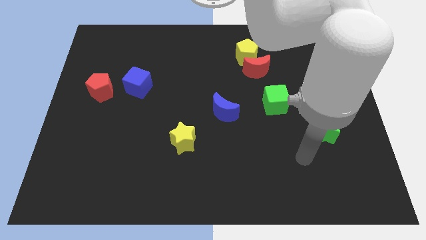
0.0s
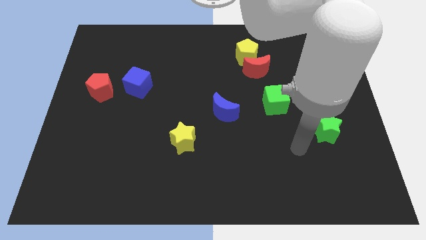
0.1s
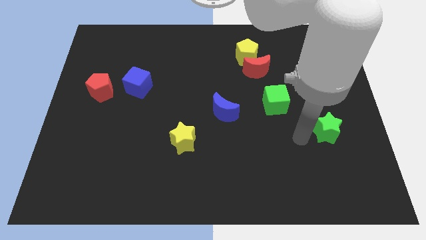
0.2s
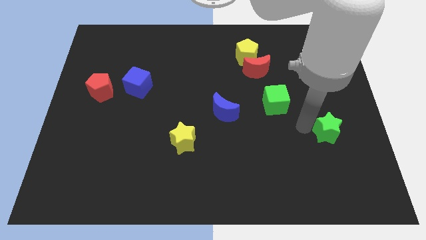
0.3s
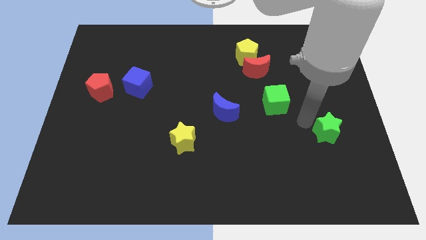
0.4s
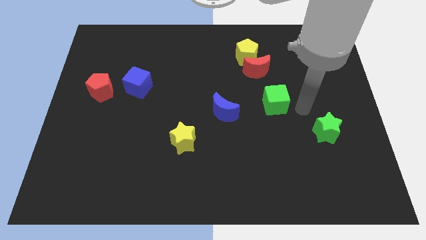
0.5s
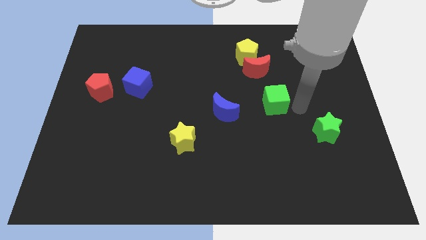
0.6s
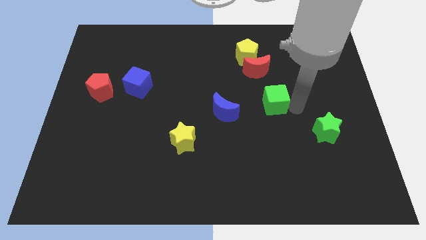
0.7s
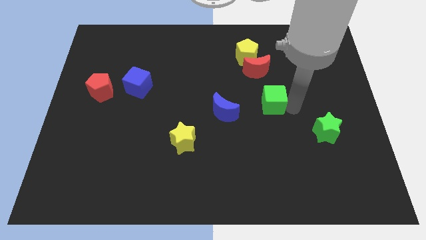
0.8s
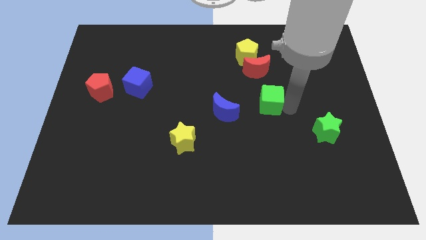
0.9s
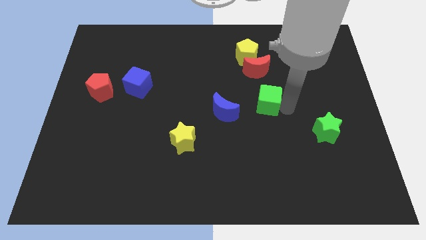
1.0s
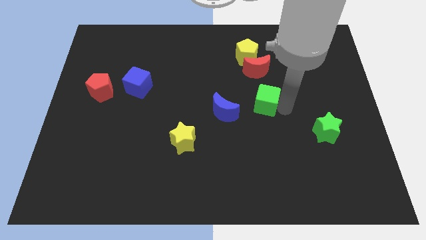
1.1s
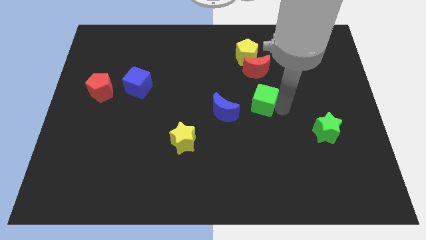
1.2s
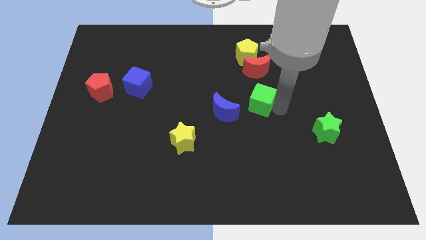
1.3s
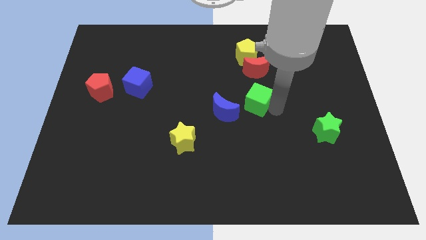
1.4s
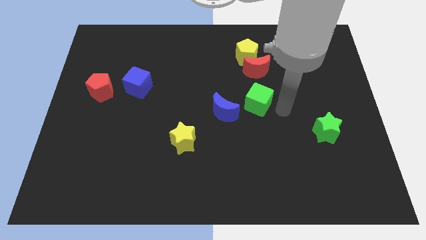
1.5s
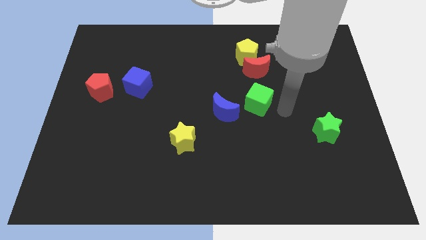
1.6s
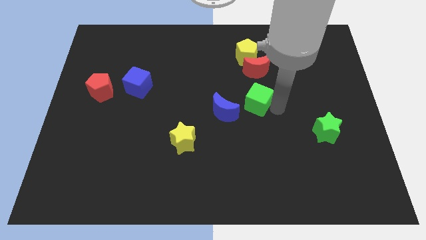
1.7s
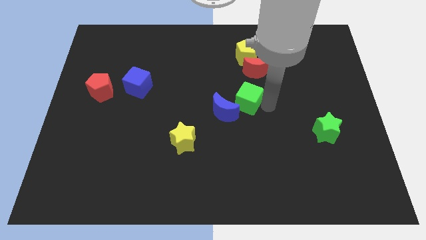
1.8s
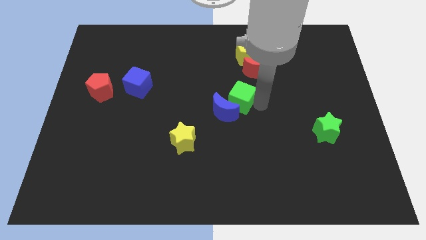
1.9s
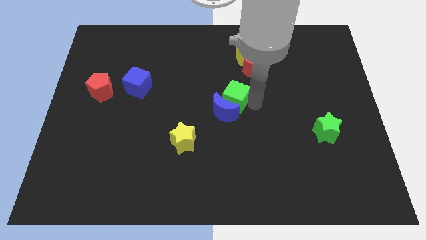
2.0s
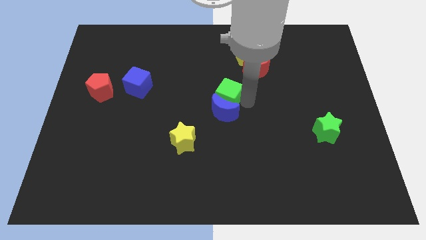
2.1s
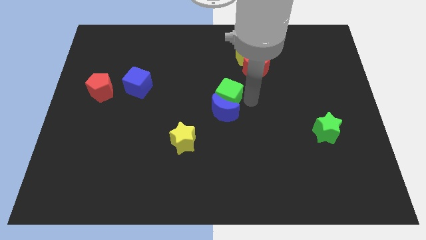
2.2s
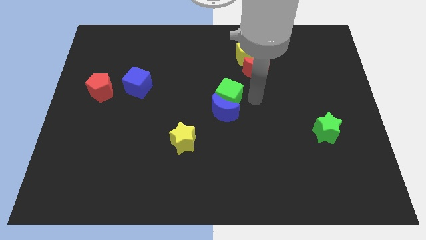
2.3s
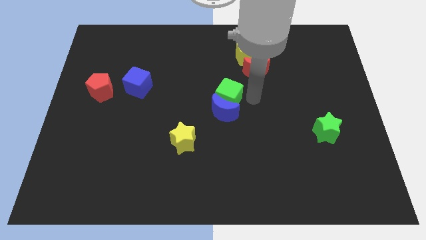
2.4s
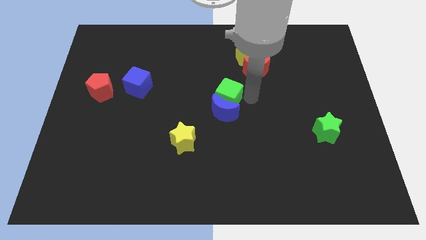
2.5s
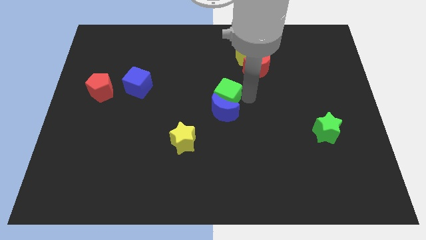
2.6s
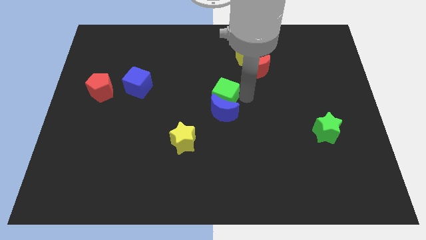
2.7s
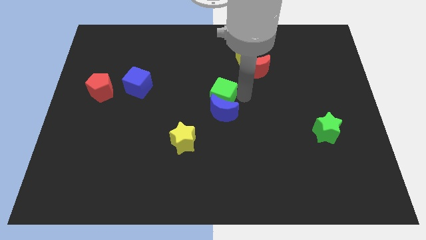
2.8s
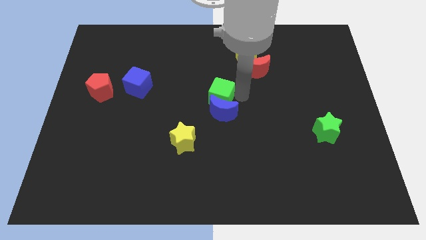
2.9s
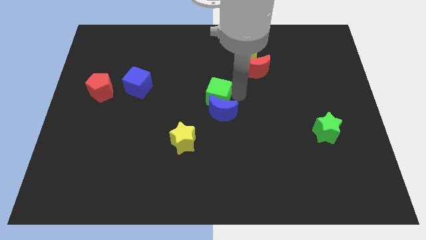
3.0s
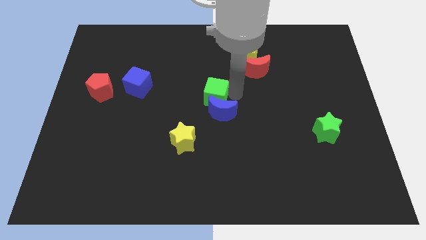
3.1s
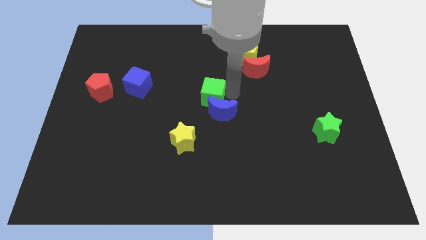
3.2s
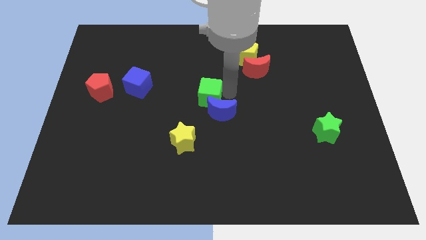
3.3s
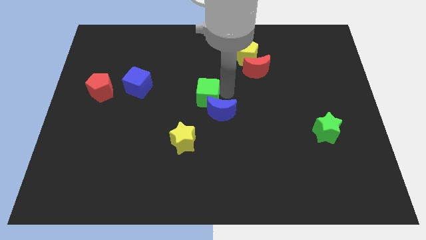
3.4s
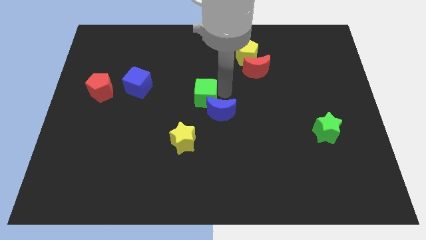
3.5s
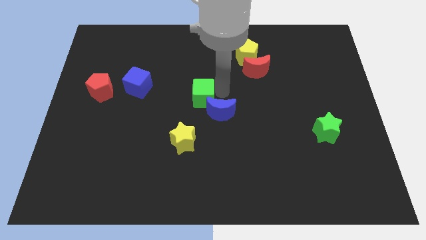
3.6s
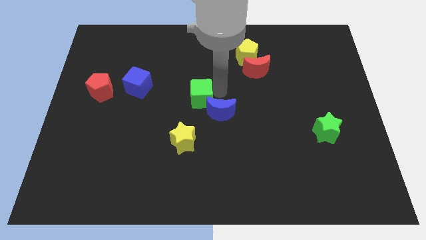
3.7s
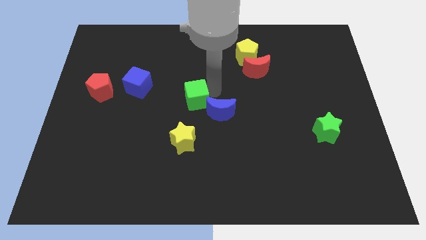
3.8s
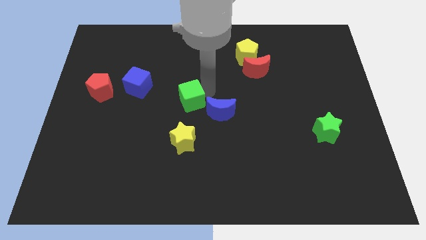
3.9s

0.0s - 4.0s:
push the green cube left

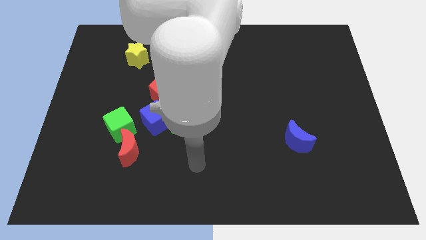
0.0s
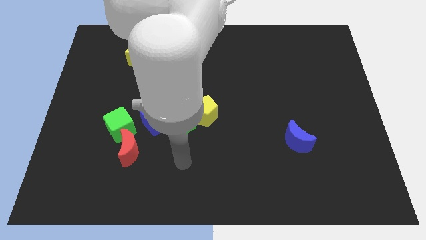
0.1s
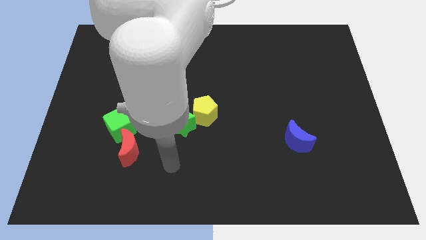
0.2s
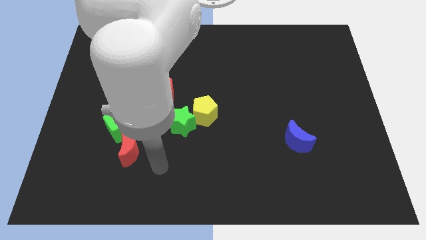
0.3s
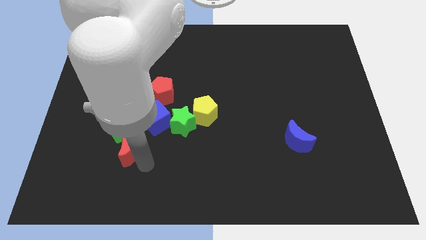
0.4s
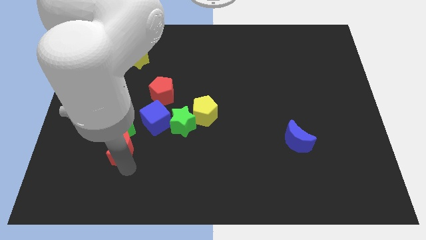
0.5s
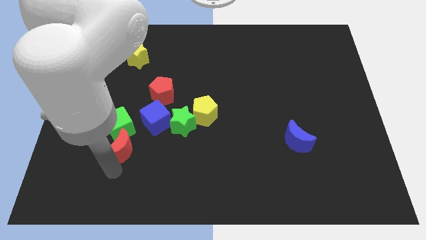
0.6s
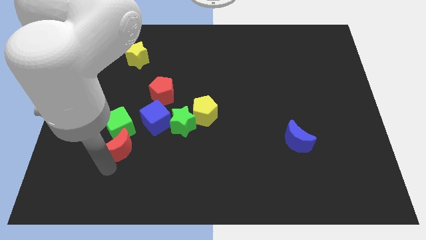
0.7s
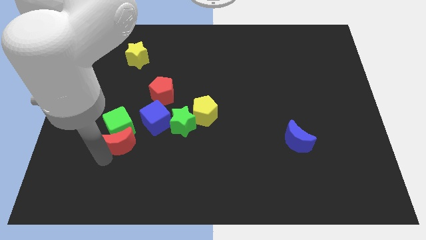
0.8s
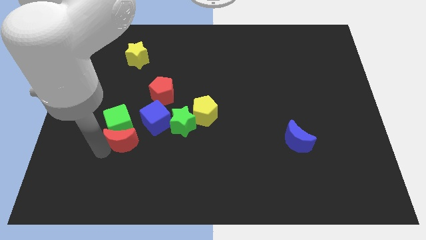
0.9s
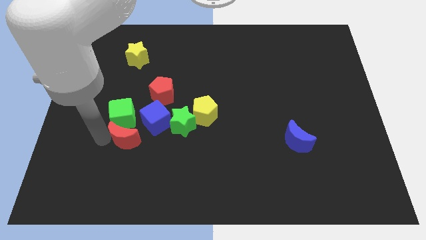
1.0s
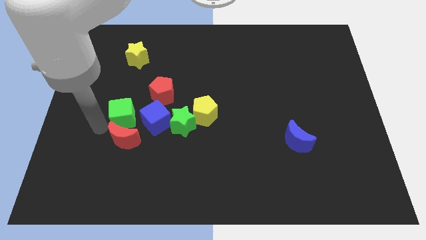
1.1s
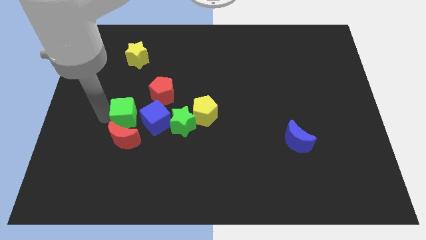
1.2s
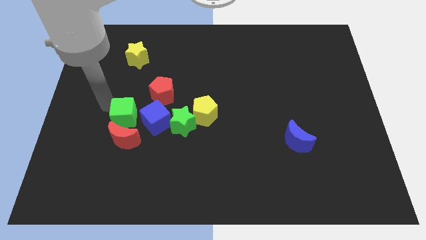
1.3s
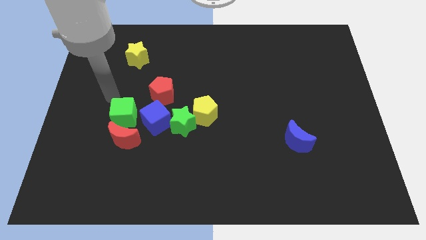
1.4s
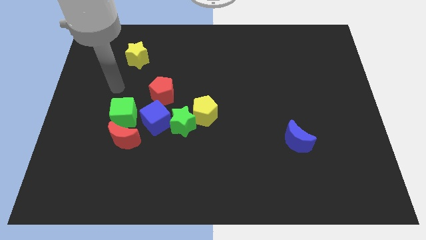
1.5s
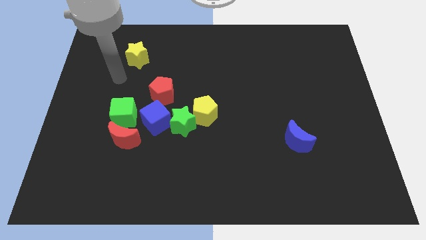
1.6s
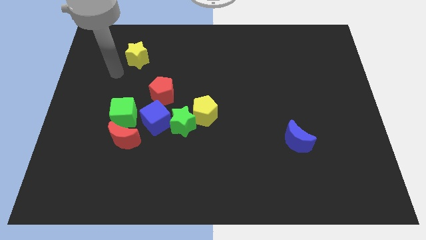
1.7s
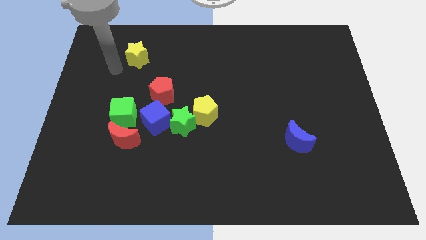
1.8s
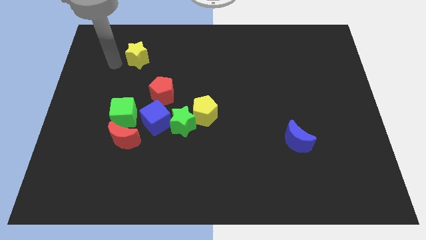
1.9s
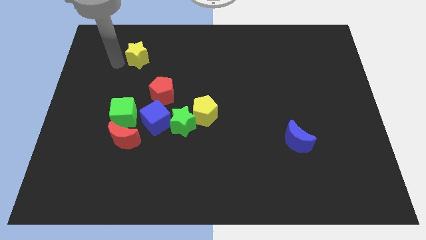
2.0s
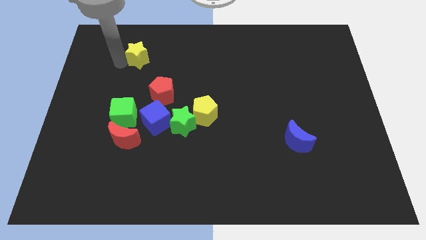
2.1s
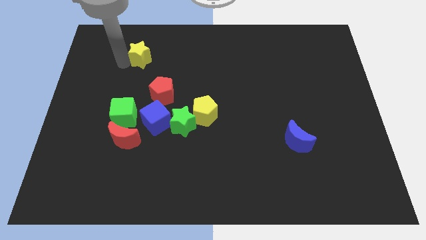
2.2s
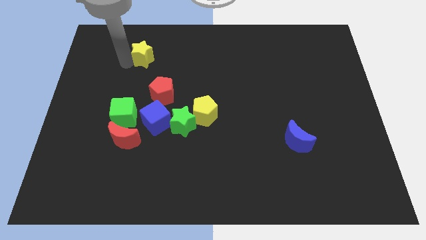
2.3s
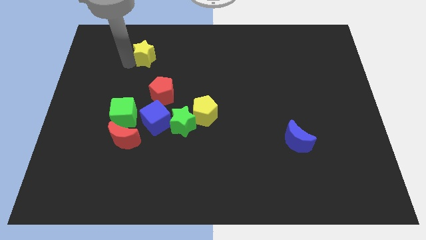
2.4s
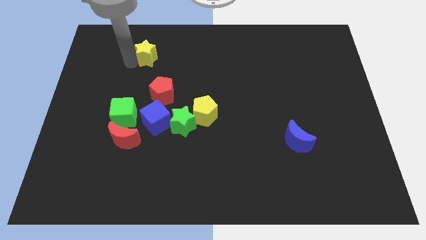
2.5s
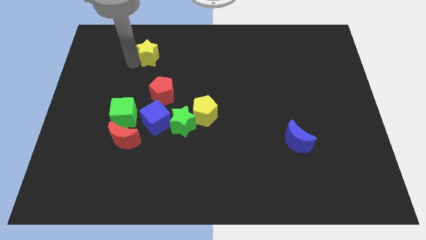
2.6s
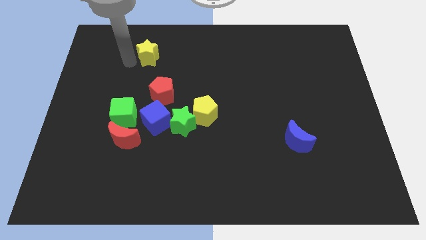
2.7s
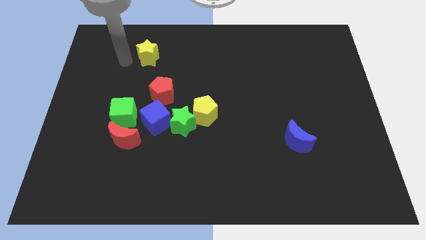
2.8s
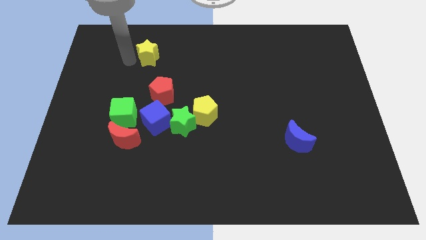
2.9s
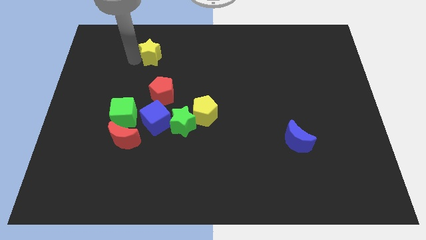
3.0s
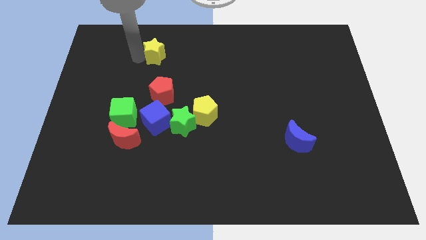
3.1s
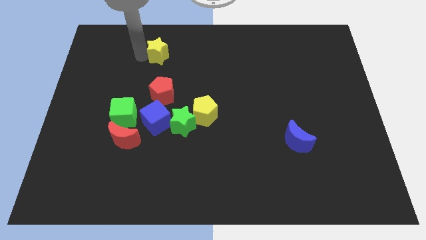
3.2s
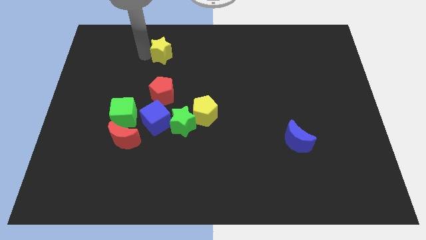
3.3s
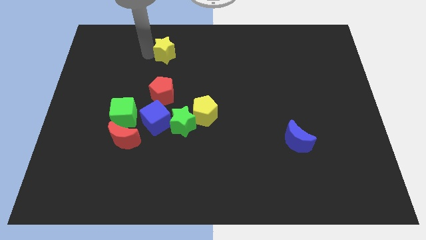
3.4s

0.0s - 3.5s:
slide the yellow star a bit to the right

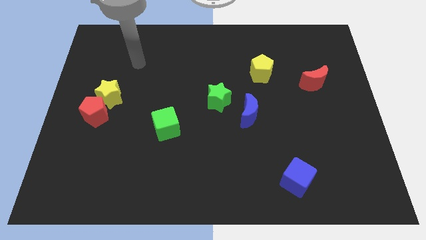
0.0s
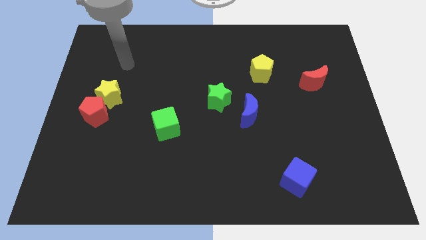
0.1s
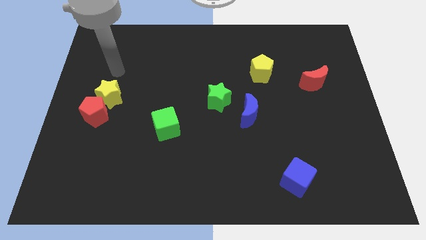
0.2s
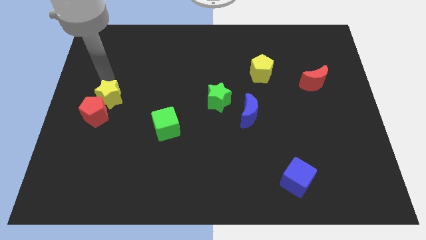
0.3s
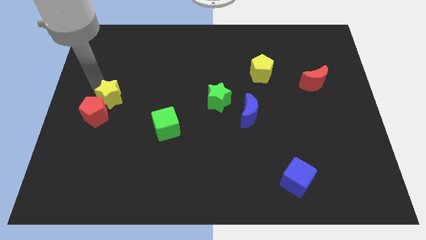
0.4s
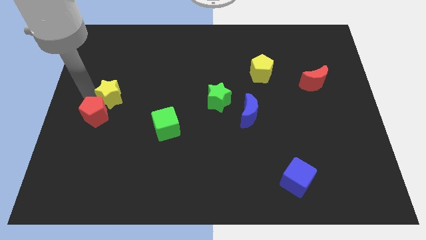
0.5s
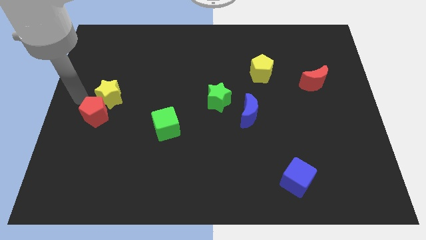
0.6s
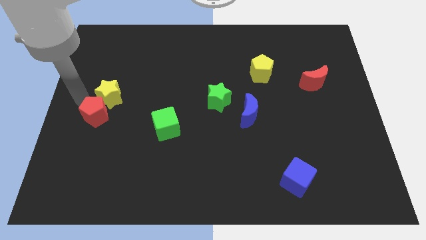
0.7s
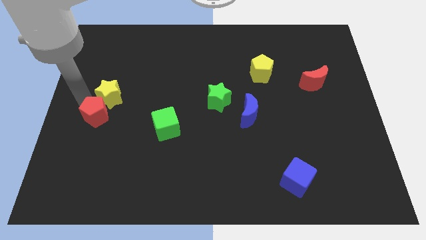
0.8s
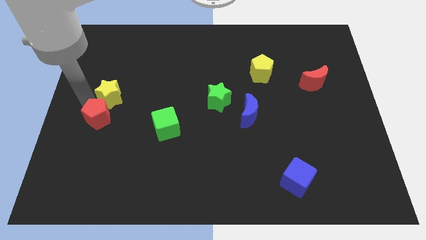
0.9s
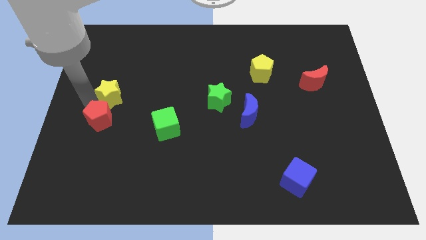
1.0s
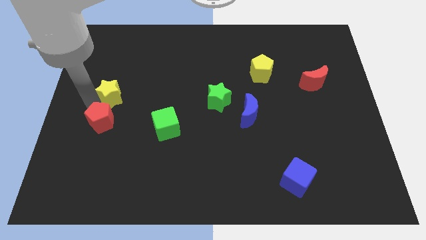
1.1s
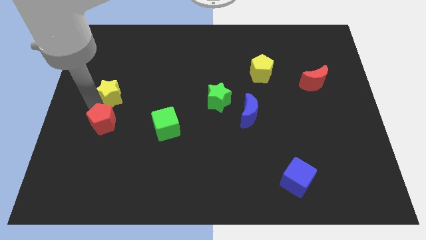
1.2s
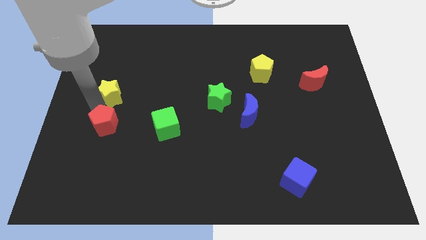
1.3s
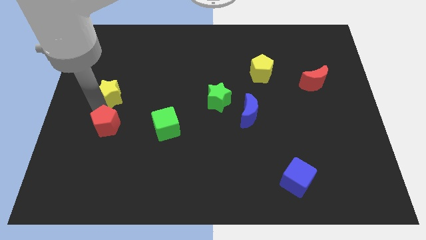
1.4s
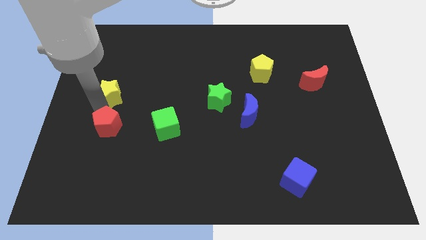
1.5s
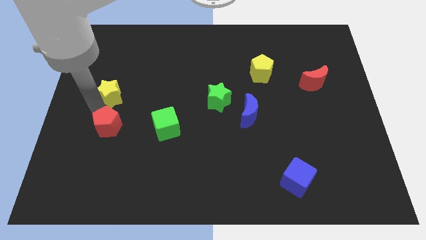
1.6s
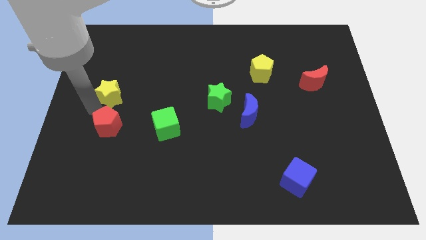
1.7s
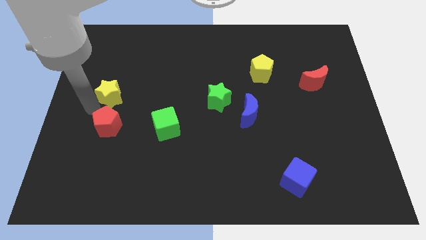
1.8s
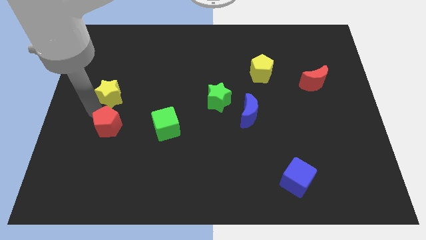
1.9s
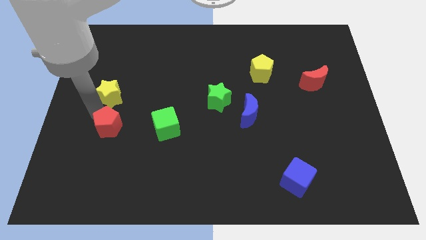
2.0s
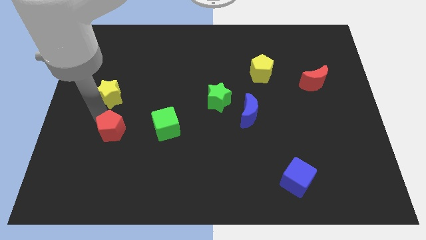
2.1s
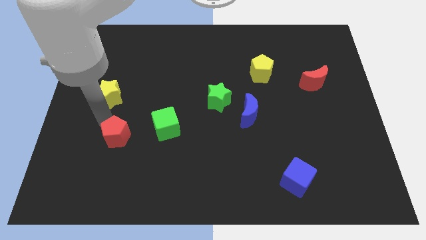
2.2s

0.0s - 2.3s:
slightly slide the red pentagon down and to the right
